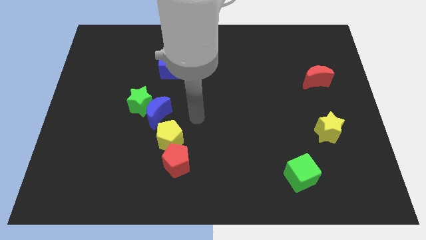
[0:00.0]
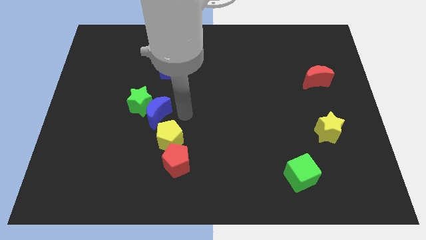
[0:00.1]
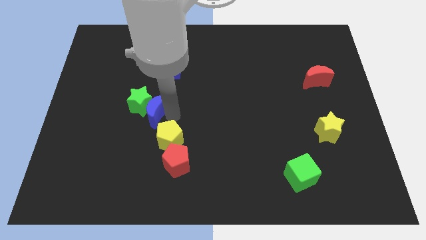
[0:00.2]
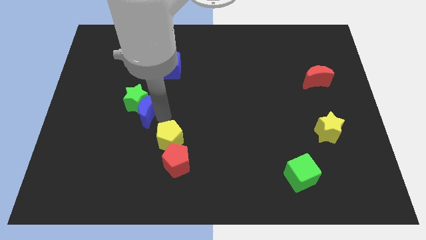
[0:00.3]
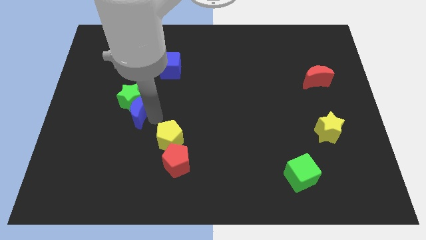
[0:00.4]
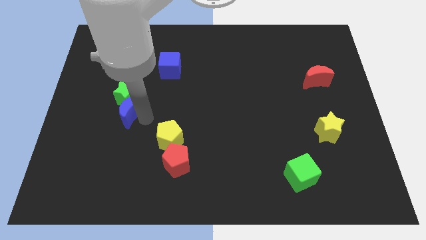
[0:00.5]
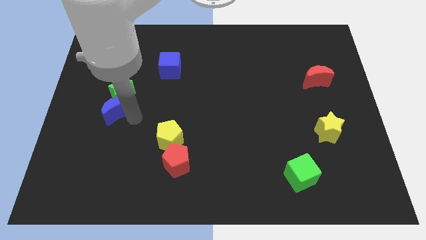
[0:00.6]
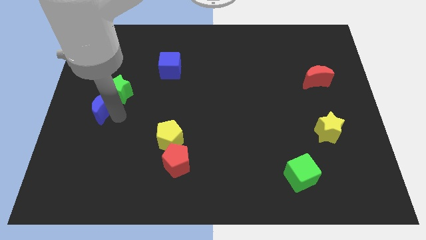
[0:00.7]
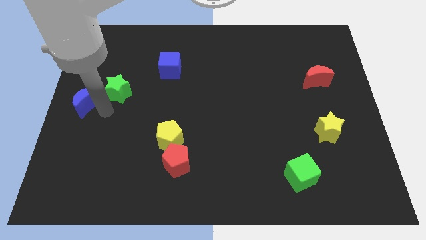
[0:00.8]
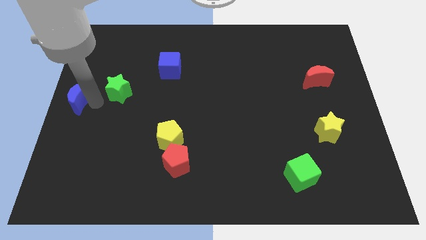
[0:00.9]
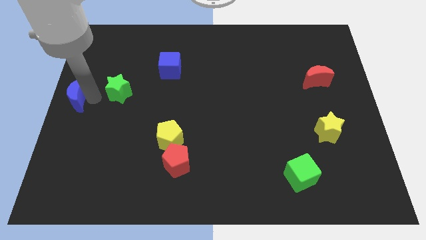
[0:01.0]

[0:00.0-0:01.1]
separate the green star from the blue moon

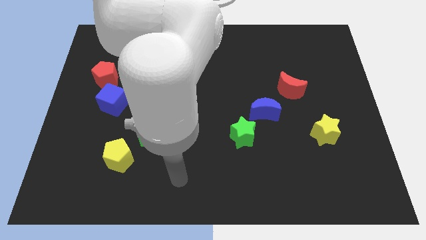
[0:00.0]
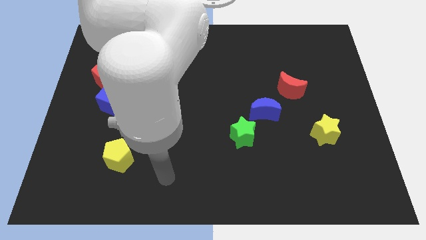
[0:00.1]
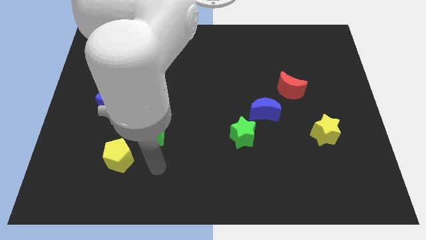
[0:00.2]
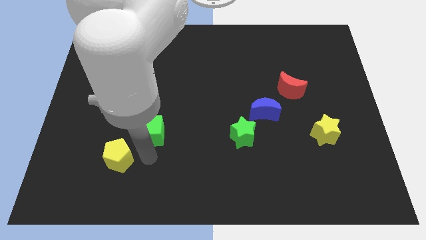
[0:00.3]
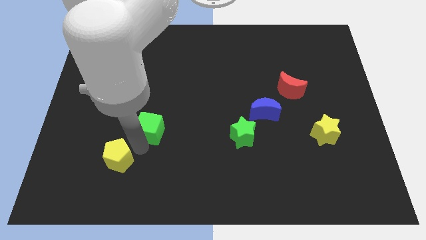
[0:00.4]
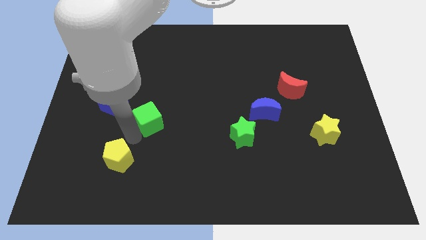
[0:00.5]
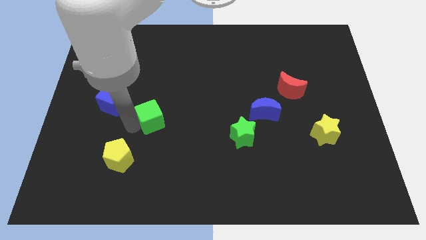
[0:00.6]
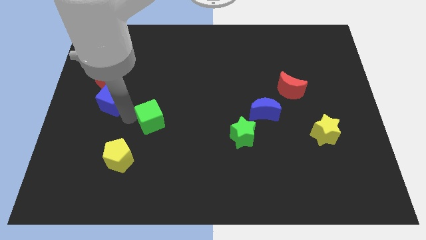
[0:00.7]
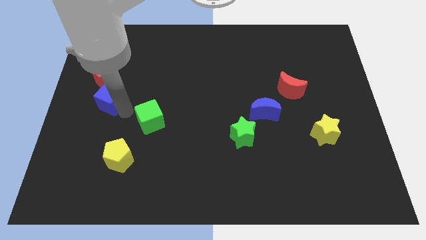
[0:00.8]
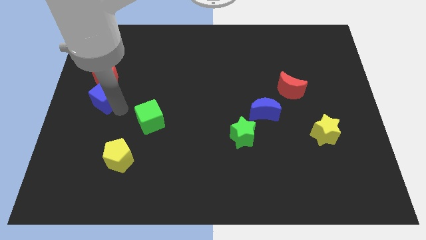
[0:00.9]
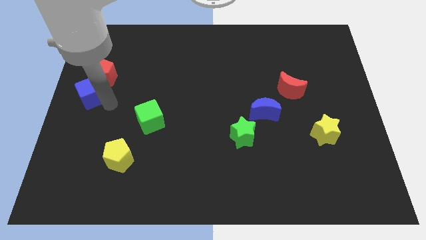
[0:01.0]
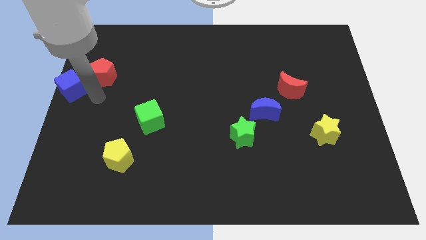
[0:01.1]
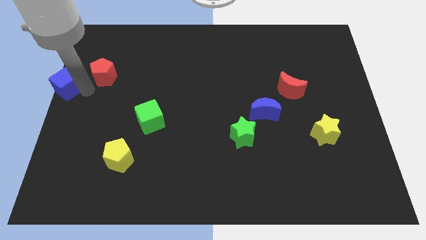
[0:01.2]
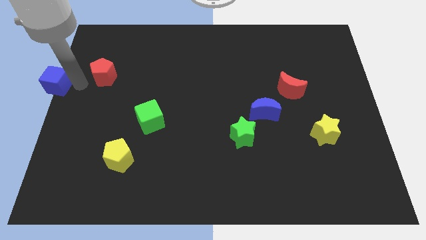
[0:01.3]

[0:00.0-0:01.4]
separate the red pentagon from the blue cube

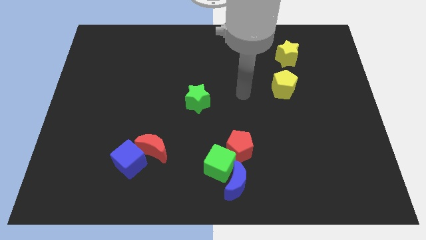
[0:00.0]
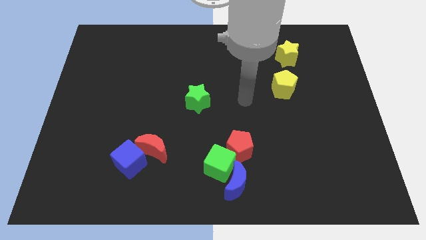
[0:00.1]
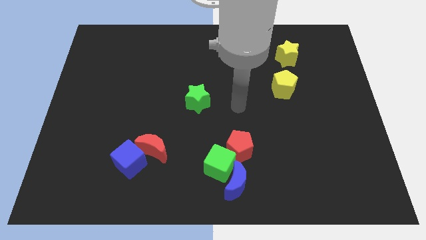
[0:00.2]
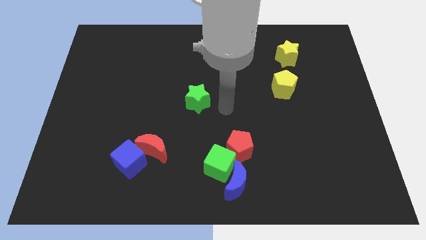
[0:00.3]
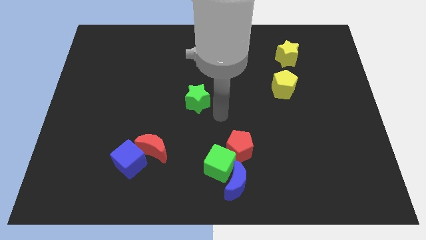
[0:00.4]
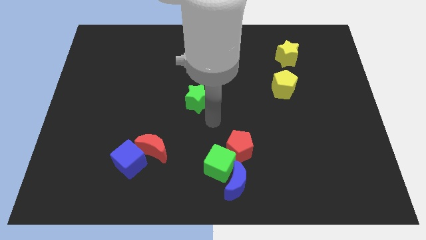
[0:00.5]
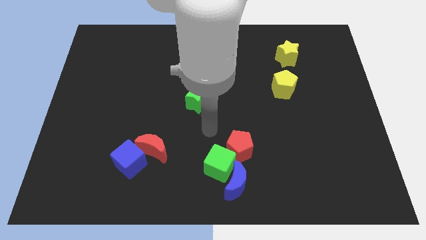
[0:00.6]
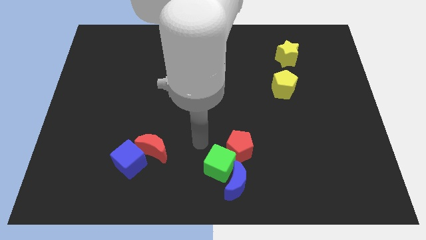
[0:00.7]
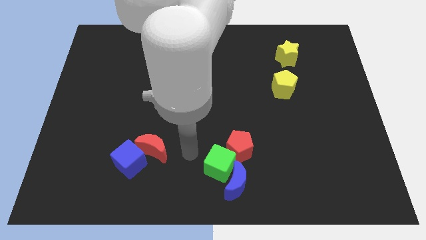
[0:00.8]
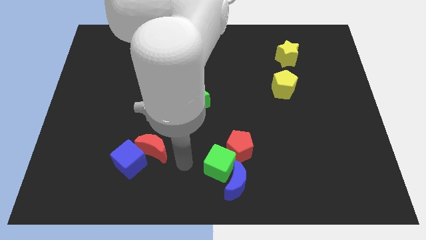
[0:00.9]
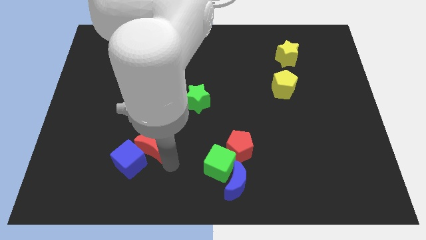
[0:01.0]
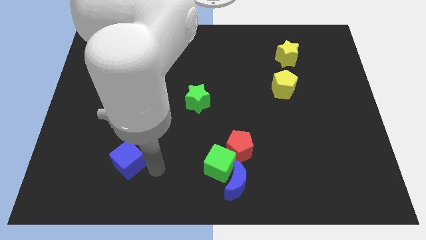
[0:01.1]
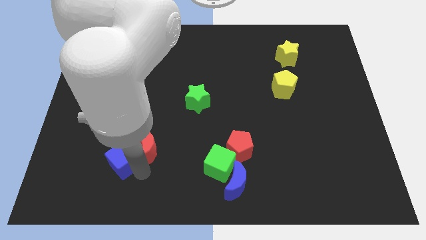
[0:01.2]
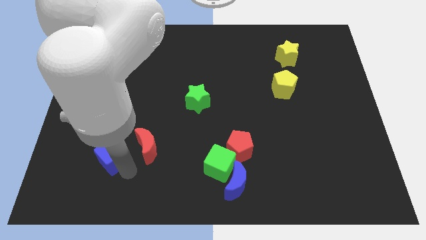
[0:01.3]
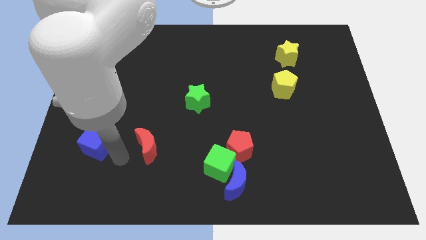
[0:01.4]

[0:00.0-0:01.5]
move the red moon away from the blue cube

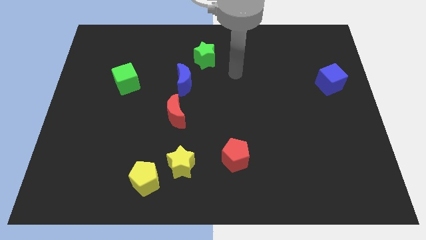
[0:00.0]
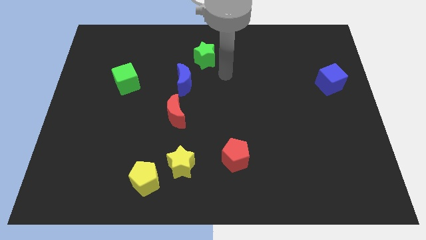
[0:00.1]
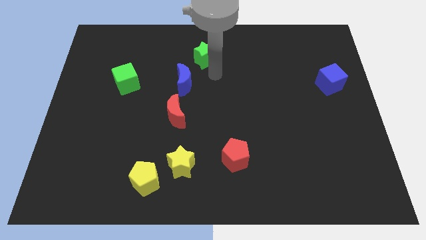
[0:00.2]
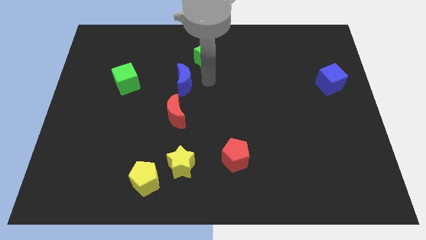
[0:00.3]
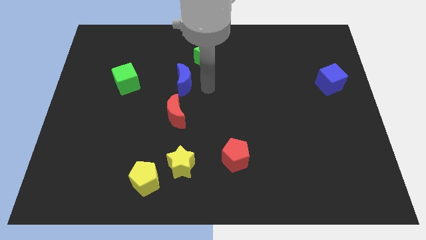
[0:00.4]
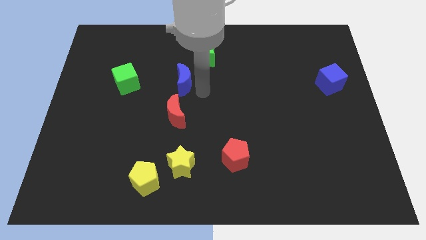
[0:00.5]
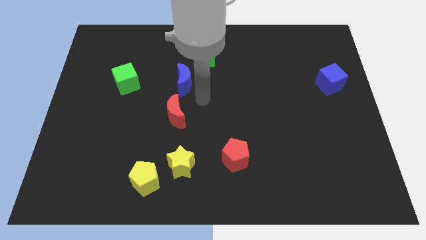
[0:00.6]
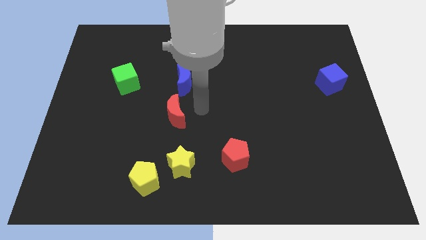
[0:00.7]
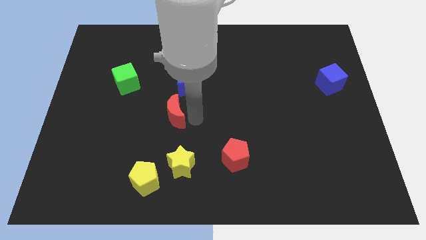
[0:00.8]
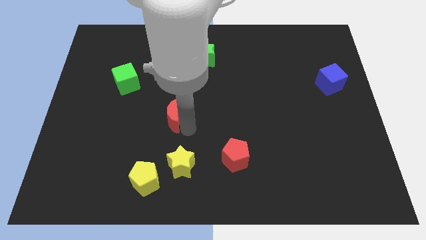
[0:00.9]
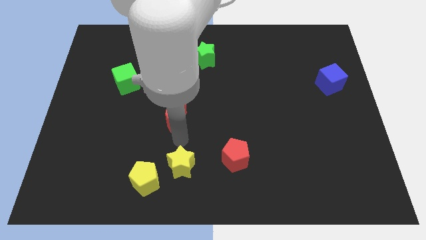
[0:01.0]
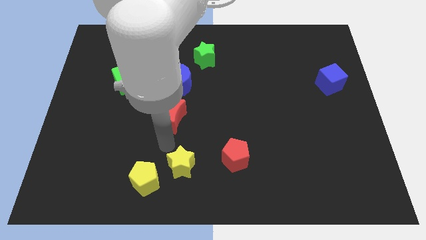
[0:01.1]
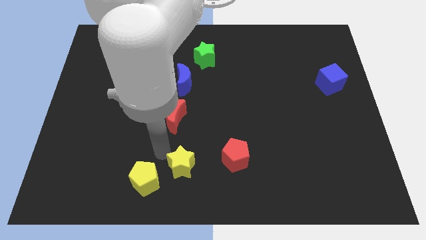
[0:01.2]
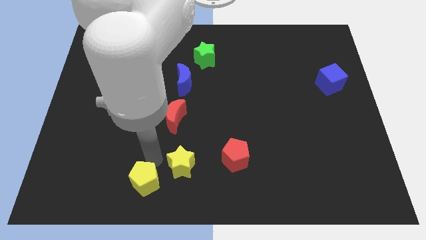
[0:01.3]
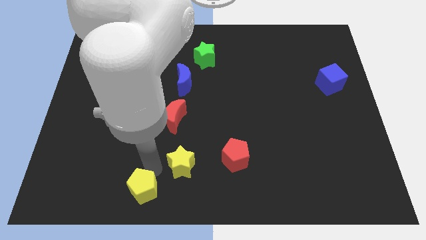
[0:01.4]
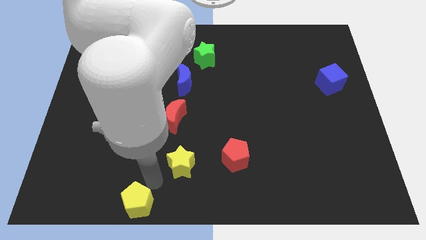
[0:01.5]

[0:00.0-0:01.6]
move the yellow star away from the yellow pentagon

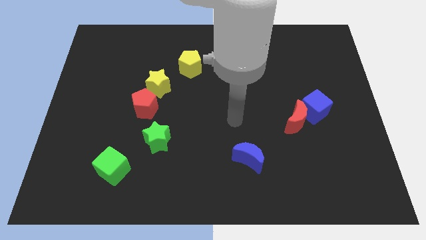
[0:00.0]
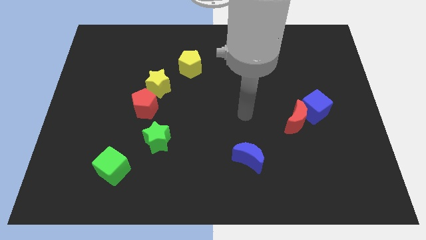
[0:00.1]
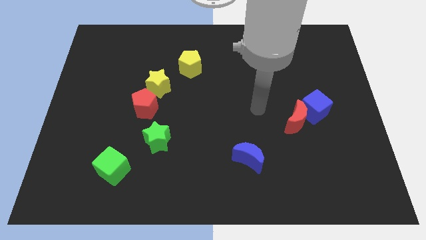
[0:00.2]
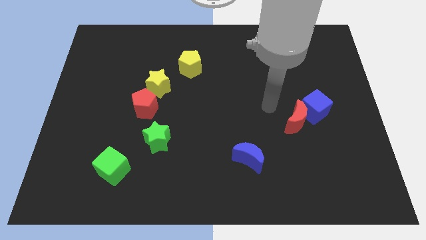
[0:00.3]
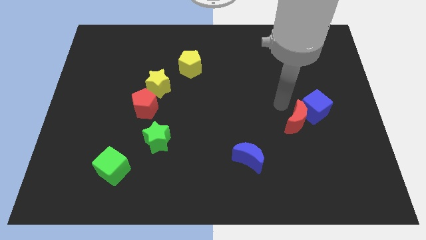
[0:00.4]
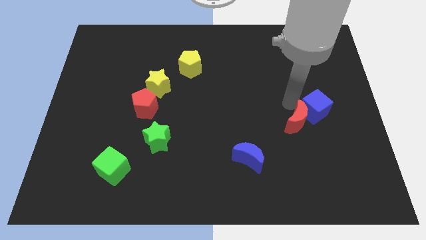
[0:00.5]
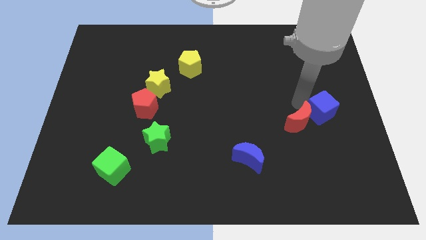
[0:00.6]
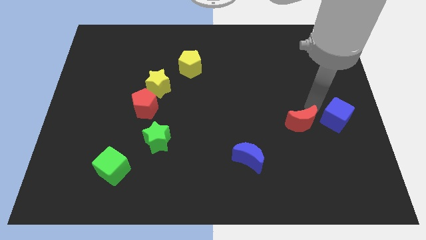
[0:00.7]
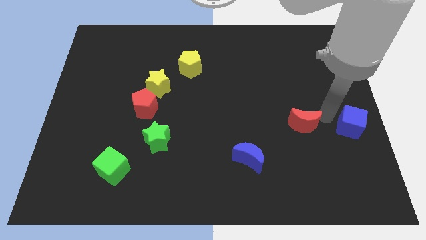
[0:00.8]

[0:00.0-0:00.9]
separate the red moon from the blue cube

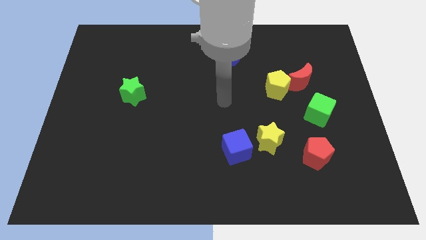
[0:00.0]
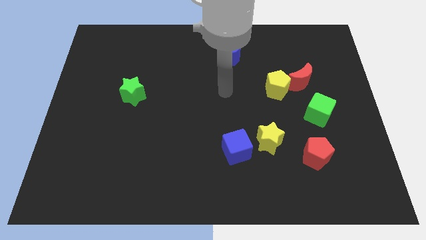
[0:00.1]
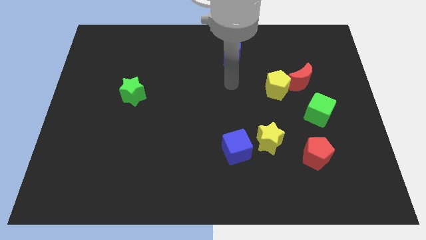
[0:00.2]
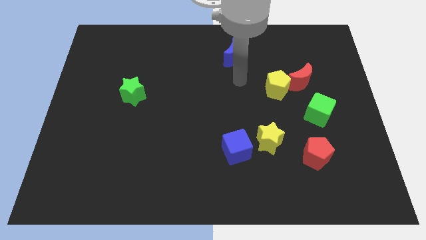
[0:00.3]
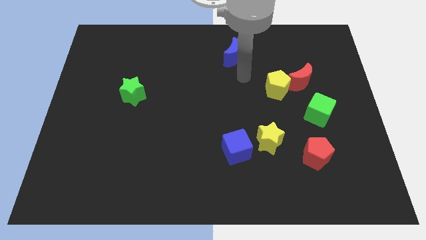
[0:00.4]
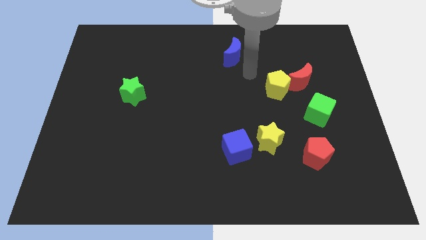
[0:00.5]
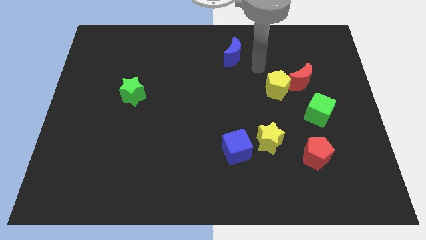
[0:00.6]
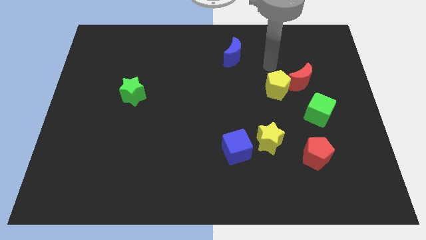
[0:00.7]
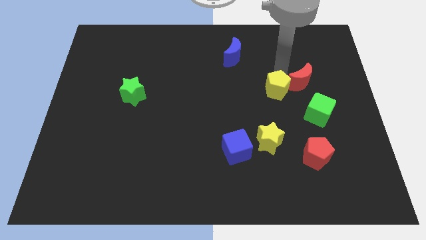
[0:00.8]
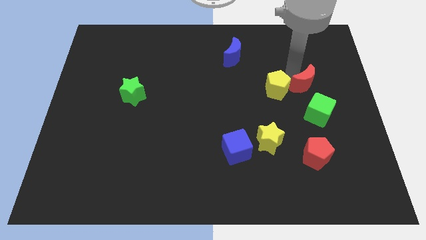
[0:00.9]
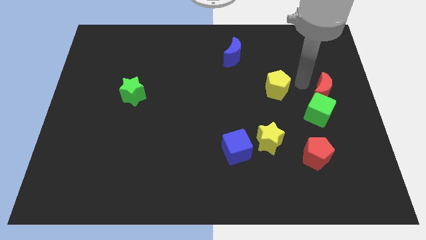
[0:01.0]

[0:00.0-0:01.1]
separate the yellow pentagon from the red moon

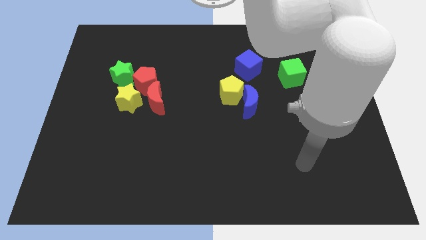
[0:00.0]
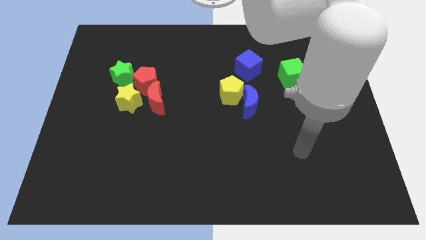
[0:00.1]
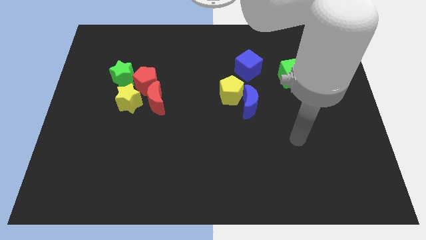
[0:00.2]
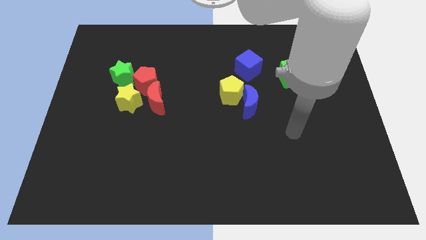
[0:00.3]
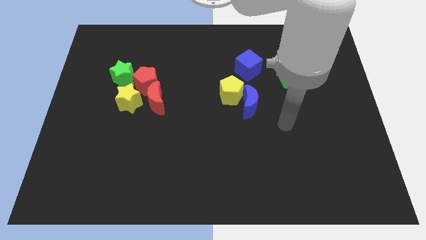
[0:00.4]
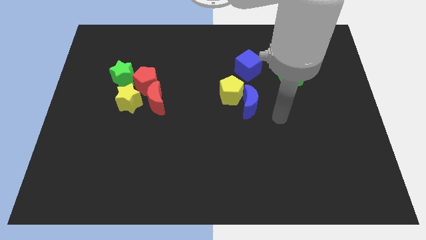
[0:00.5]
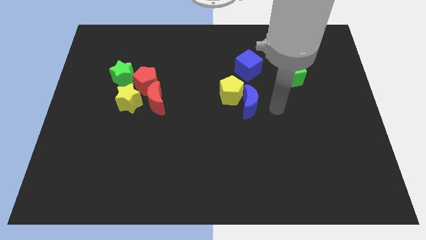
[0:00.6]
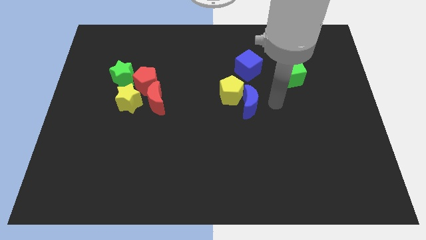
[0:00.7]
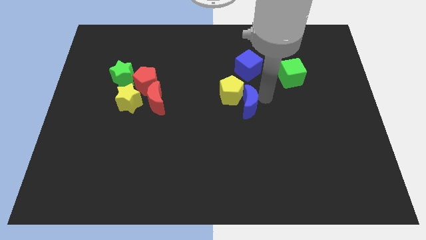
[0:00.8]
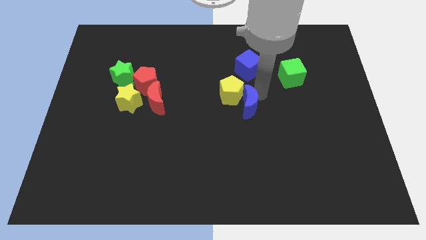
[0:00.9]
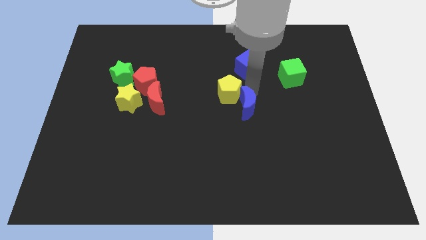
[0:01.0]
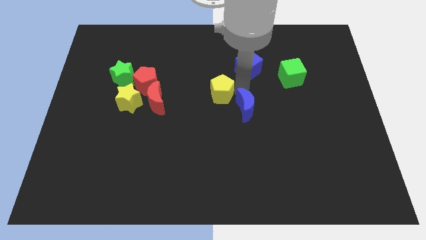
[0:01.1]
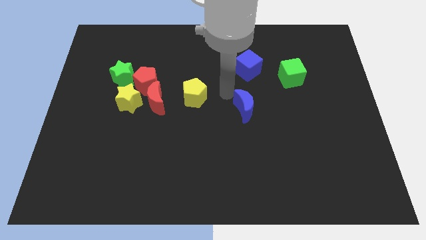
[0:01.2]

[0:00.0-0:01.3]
move the blue moon away from the yellow pentagon

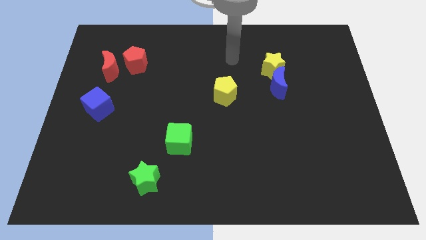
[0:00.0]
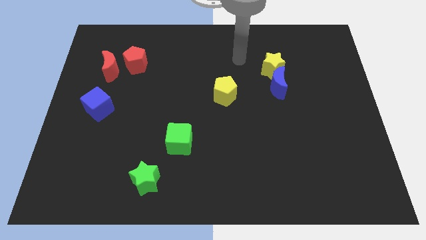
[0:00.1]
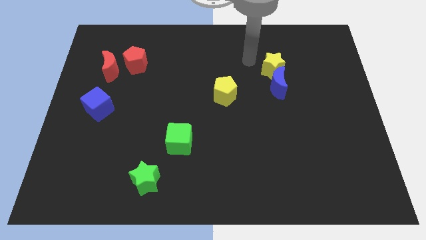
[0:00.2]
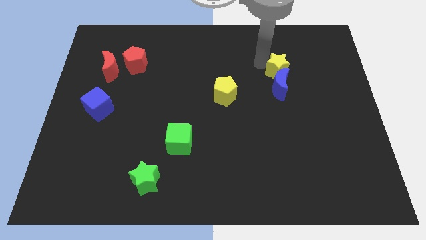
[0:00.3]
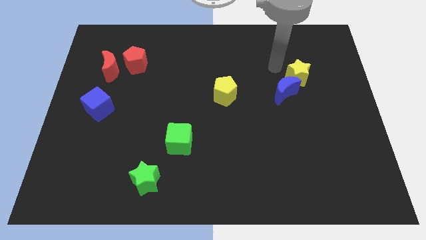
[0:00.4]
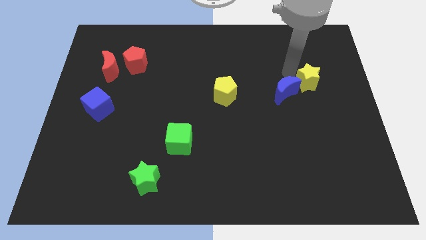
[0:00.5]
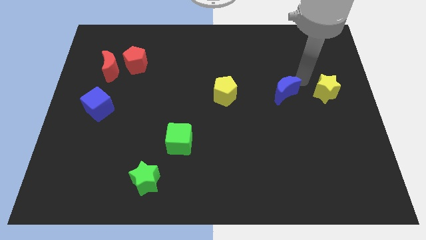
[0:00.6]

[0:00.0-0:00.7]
move the blue moon away from the yellow star
